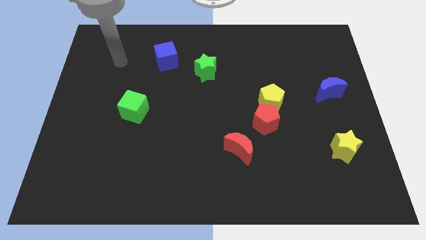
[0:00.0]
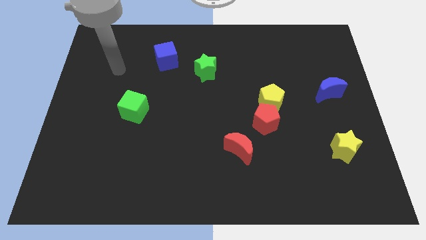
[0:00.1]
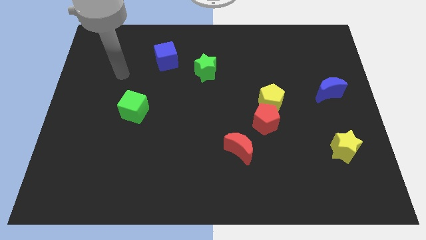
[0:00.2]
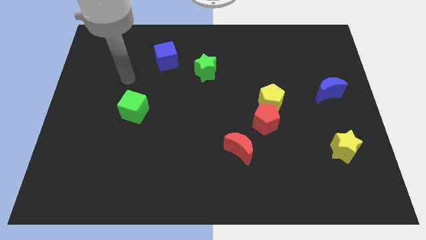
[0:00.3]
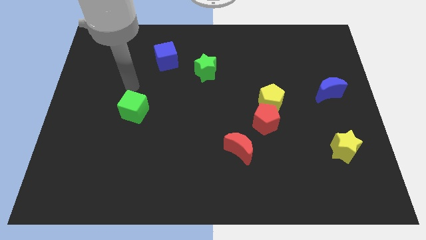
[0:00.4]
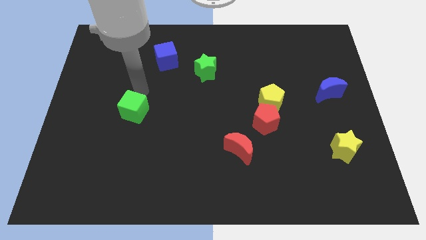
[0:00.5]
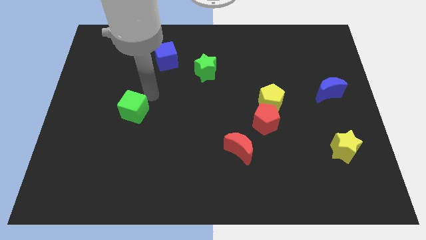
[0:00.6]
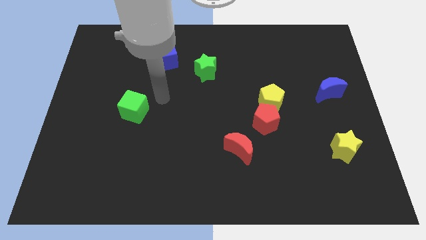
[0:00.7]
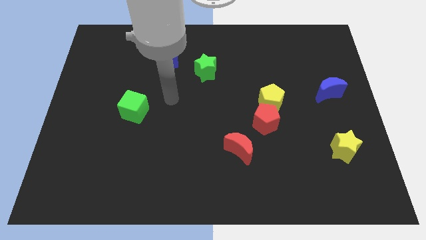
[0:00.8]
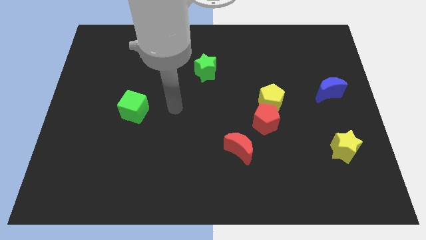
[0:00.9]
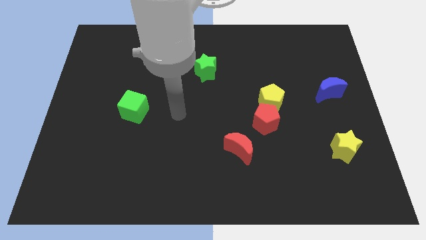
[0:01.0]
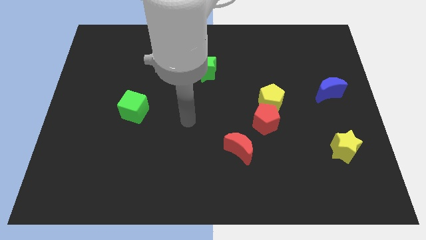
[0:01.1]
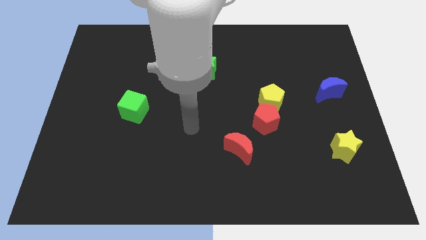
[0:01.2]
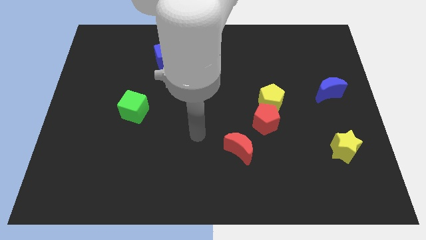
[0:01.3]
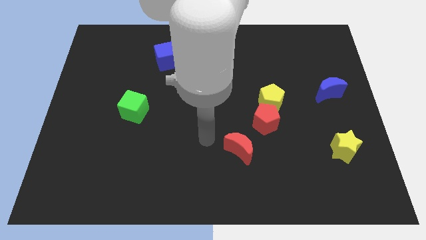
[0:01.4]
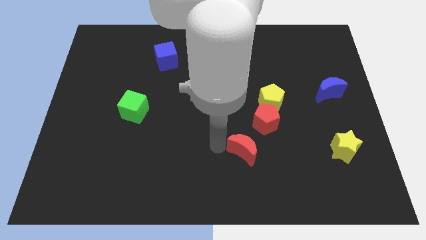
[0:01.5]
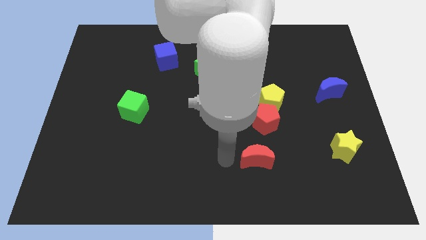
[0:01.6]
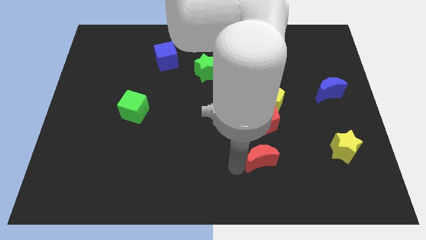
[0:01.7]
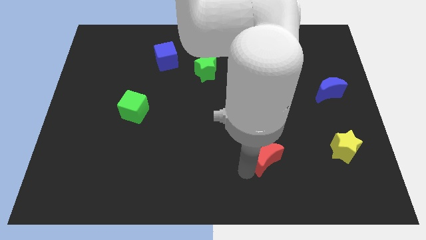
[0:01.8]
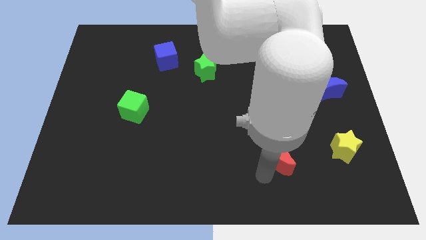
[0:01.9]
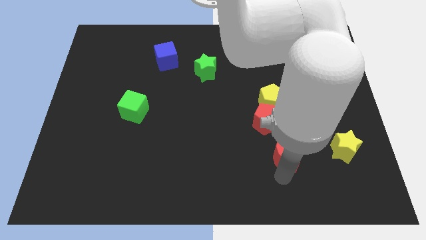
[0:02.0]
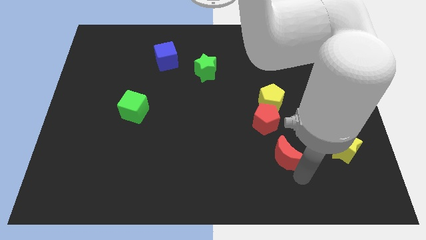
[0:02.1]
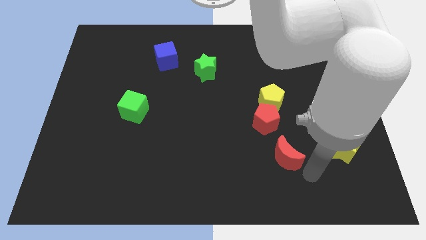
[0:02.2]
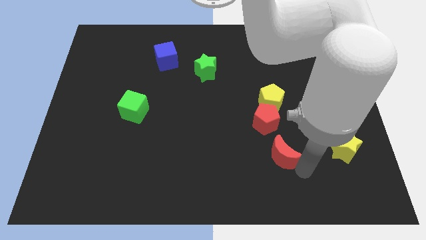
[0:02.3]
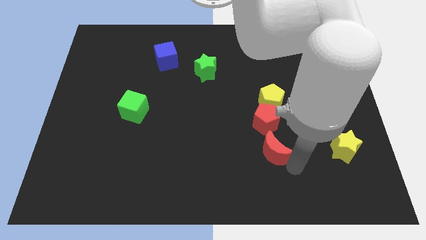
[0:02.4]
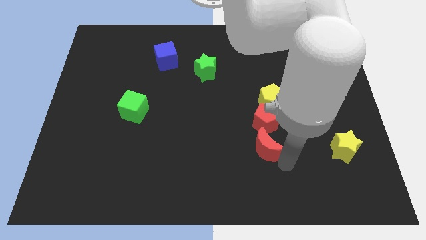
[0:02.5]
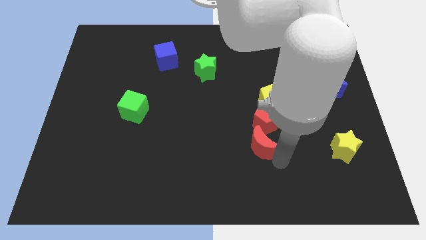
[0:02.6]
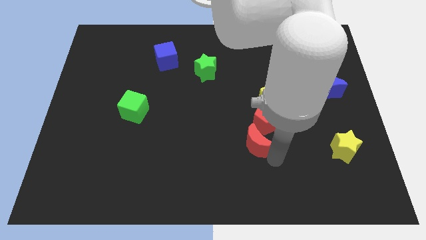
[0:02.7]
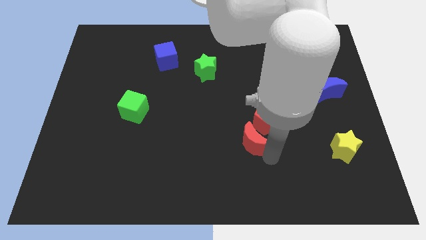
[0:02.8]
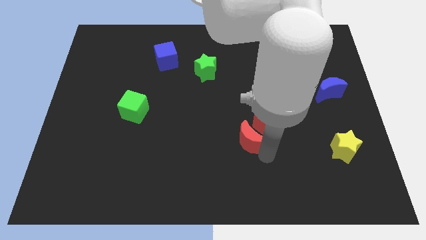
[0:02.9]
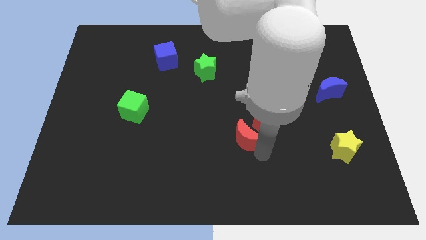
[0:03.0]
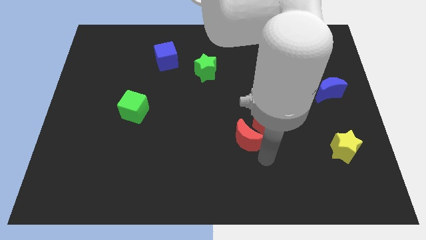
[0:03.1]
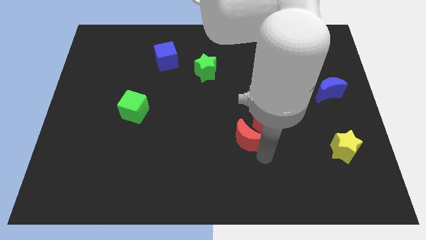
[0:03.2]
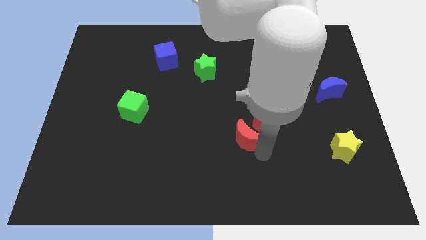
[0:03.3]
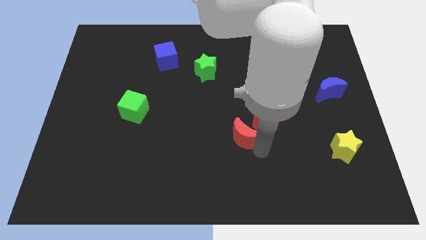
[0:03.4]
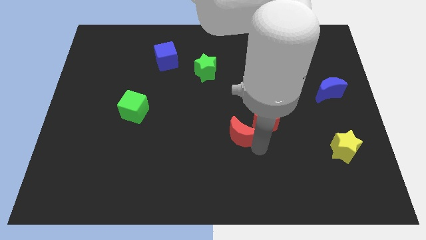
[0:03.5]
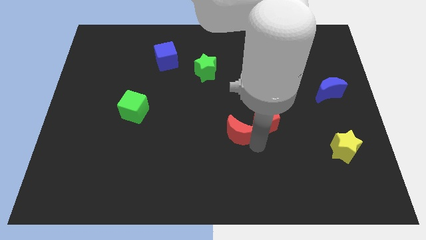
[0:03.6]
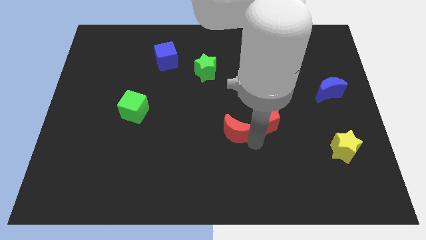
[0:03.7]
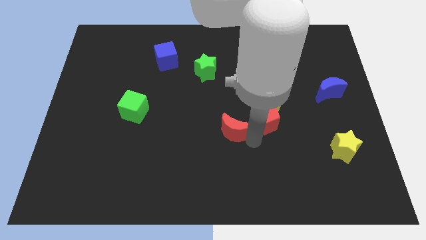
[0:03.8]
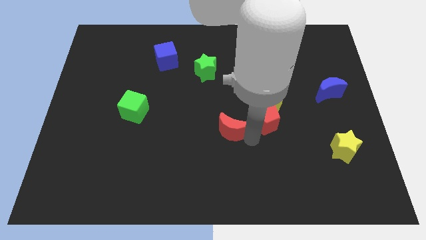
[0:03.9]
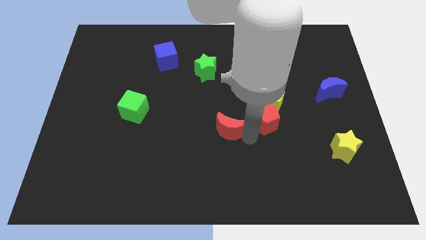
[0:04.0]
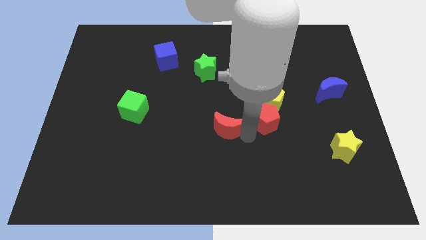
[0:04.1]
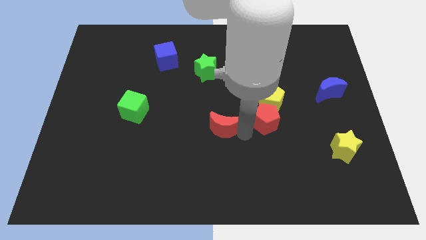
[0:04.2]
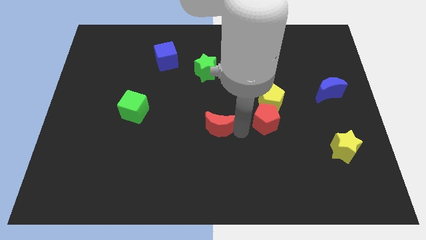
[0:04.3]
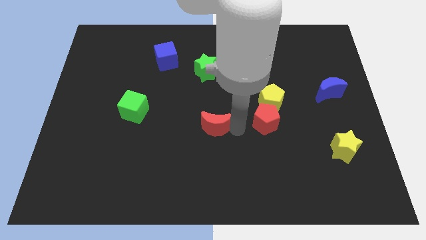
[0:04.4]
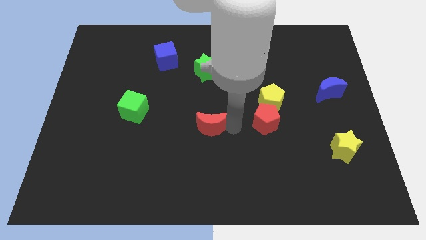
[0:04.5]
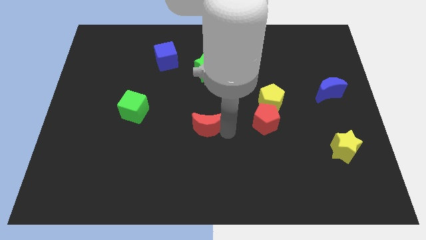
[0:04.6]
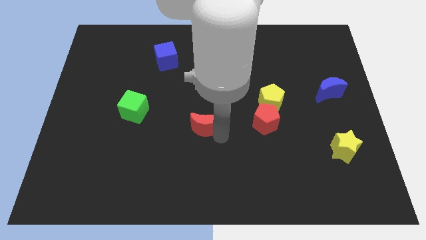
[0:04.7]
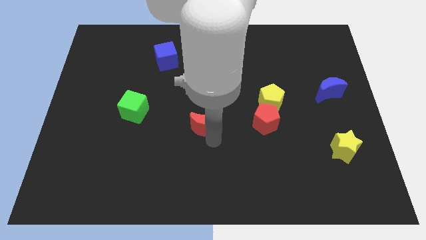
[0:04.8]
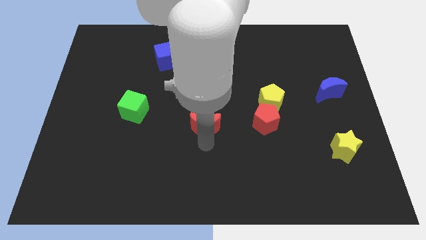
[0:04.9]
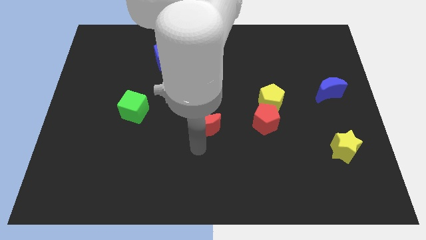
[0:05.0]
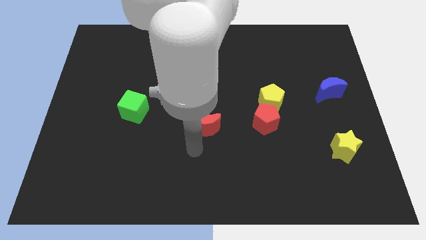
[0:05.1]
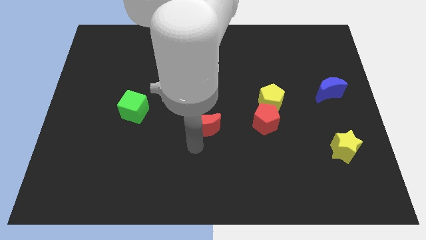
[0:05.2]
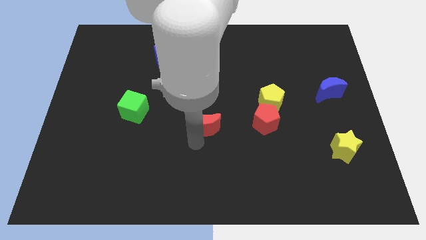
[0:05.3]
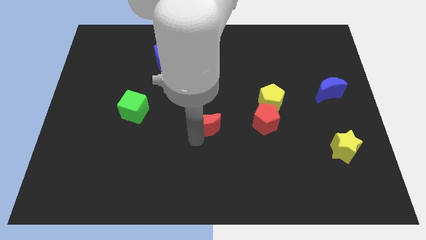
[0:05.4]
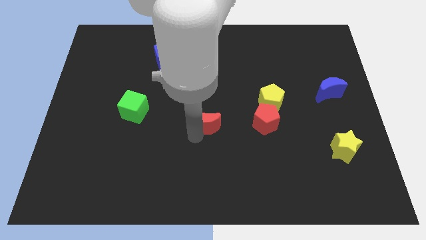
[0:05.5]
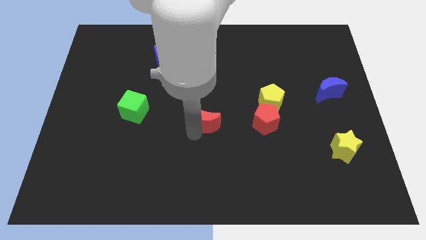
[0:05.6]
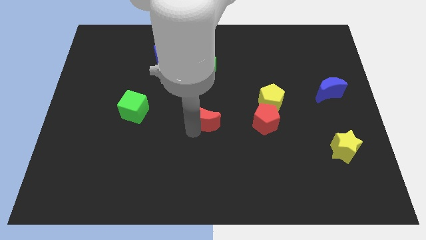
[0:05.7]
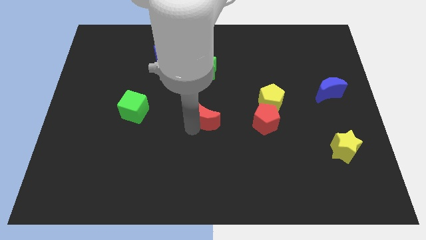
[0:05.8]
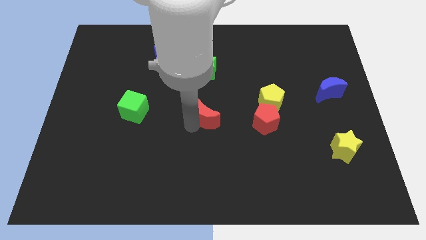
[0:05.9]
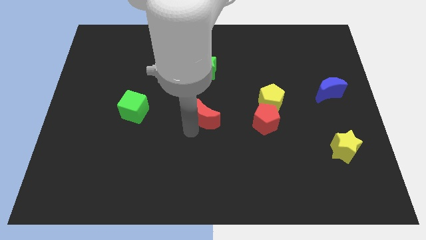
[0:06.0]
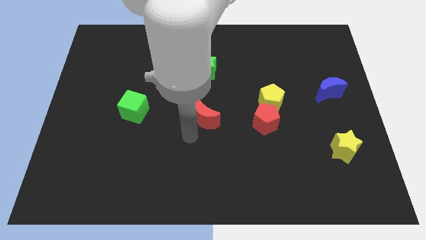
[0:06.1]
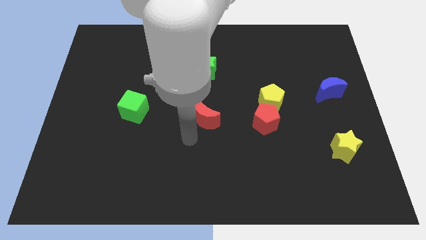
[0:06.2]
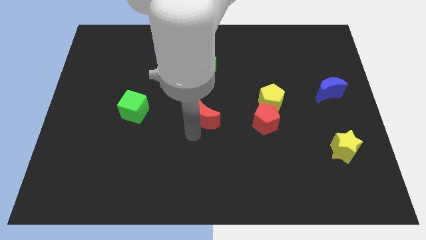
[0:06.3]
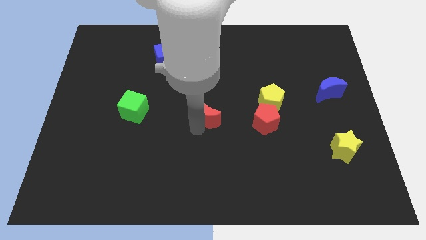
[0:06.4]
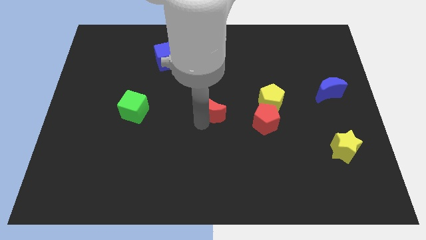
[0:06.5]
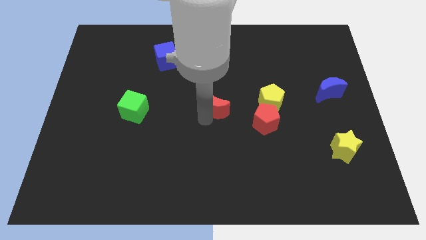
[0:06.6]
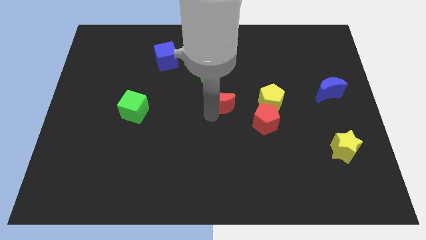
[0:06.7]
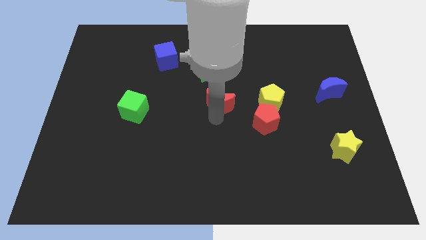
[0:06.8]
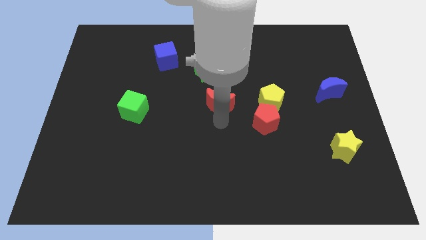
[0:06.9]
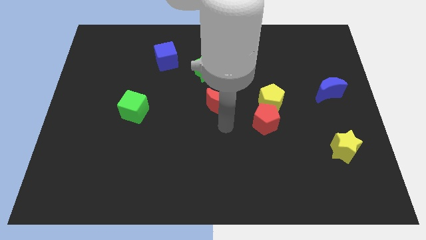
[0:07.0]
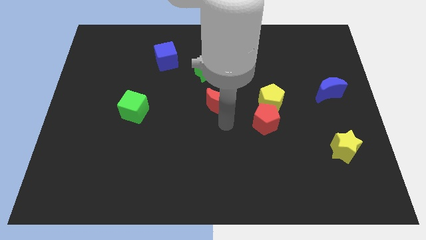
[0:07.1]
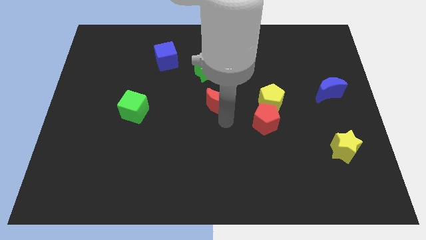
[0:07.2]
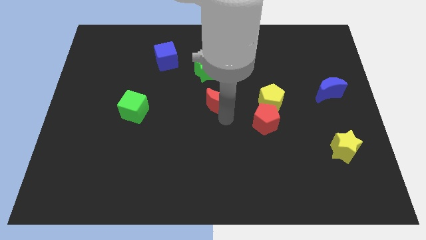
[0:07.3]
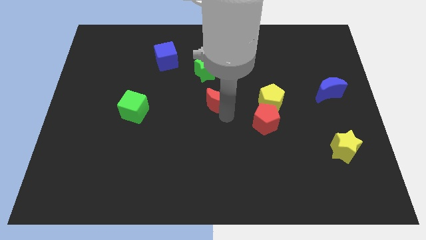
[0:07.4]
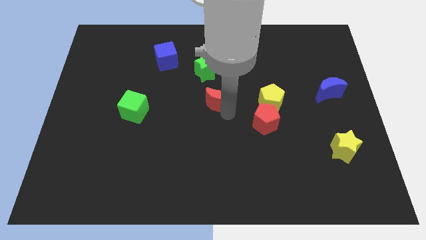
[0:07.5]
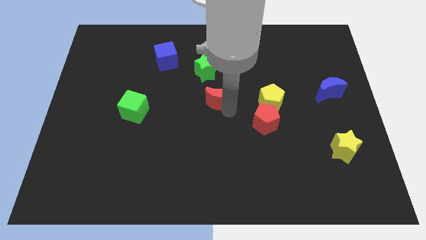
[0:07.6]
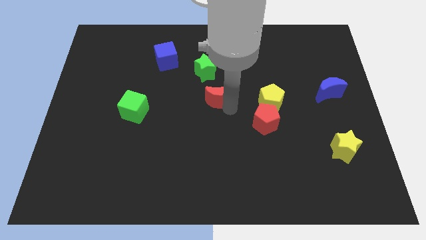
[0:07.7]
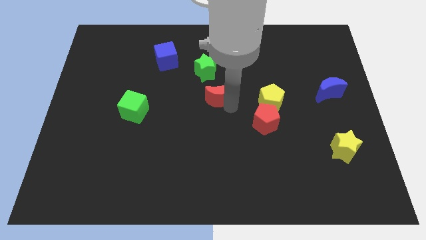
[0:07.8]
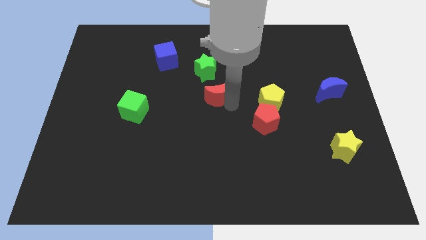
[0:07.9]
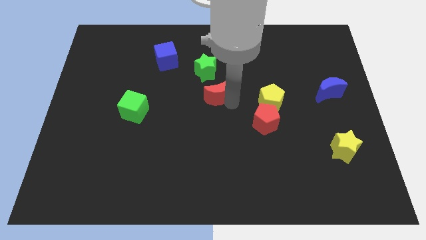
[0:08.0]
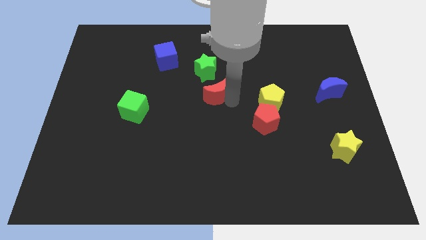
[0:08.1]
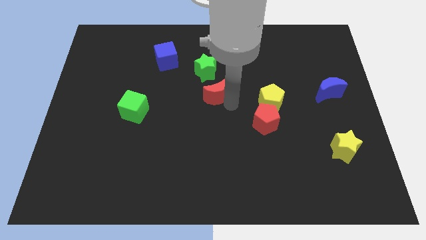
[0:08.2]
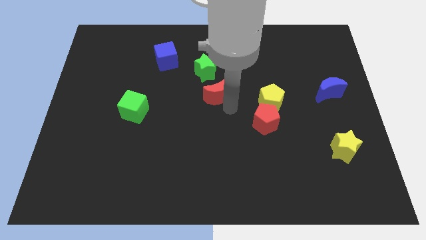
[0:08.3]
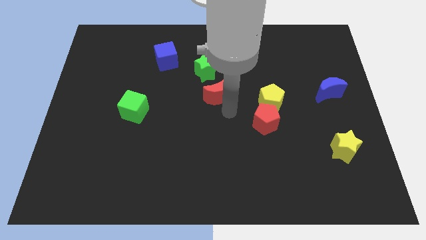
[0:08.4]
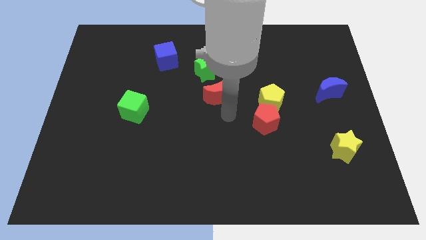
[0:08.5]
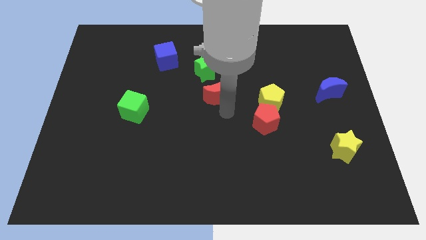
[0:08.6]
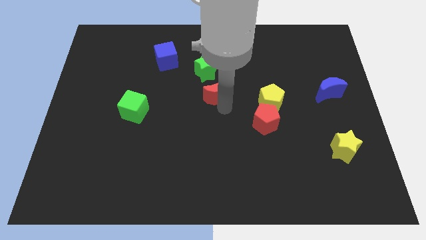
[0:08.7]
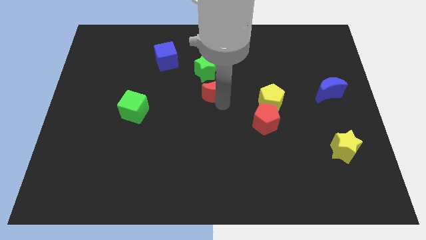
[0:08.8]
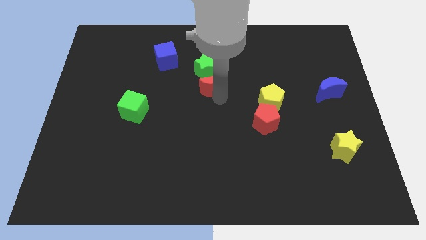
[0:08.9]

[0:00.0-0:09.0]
push the red moon towards the green star
